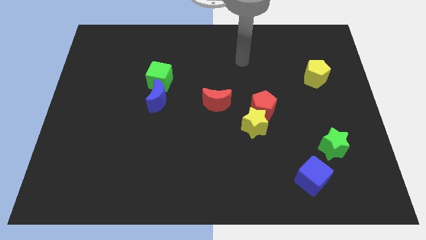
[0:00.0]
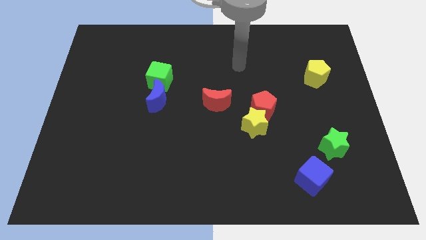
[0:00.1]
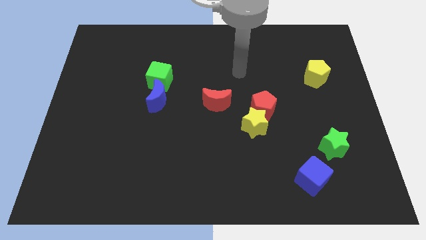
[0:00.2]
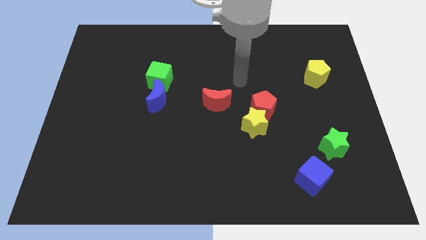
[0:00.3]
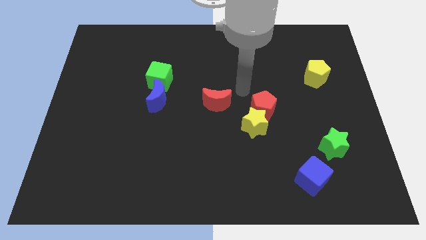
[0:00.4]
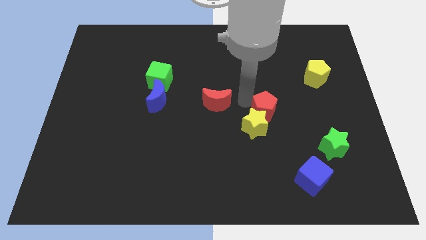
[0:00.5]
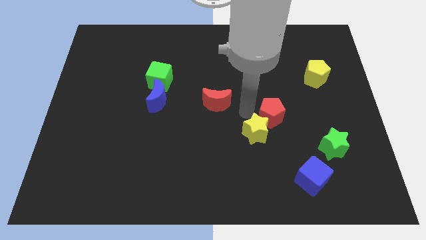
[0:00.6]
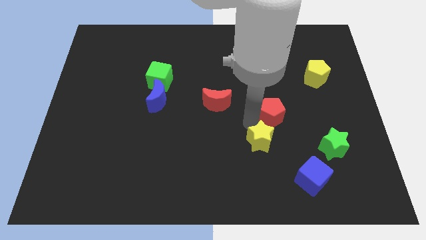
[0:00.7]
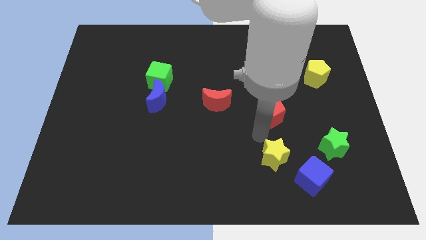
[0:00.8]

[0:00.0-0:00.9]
separate the red pentagon from the yellow star

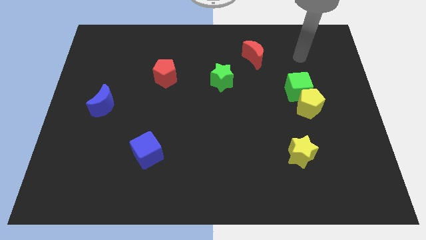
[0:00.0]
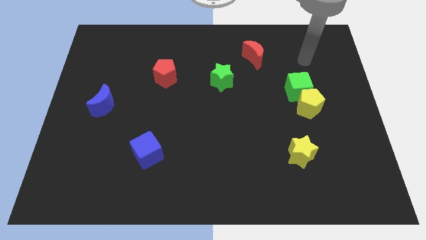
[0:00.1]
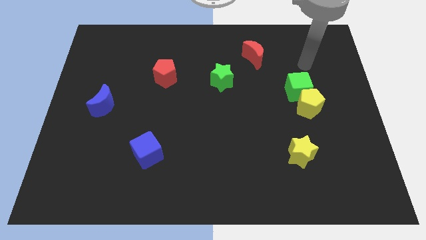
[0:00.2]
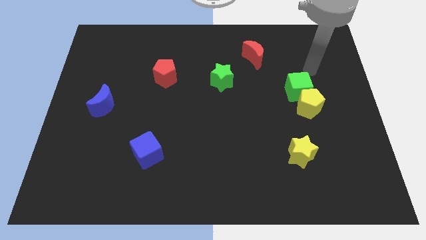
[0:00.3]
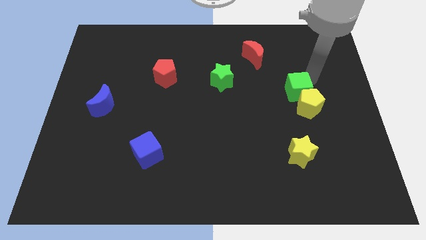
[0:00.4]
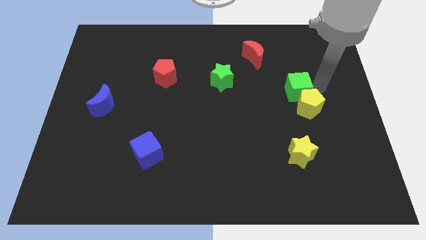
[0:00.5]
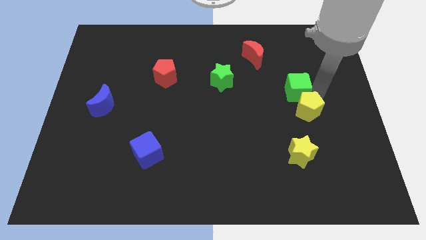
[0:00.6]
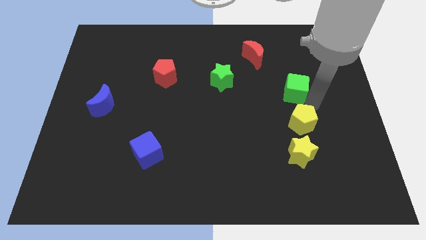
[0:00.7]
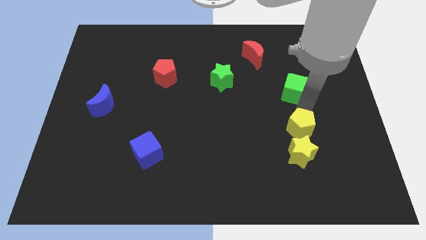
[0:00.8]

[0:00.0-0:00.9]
move the green cube away from the yellow pentagon

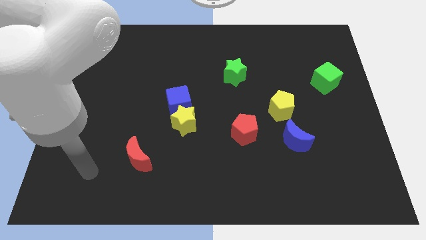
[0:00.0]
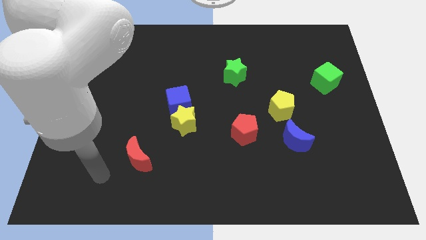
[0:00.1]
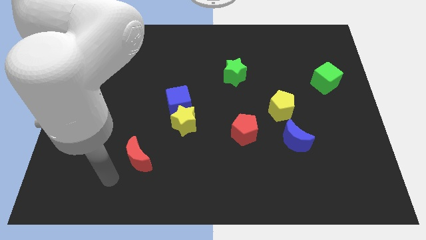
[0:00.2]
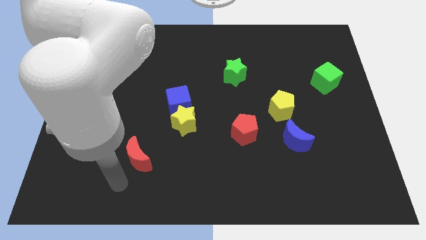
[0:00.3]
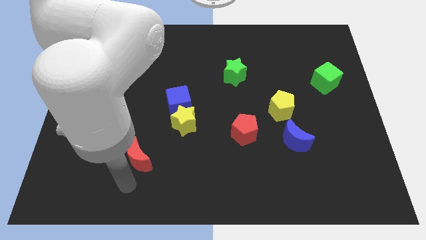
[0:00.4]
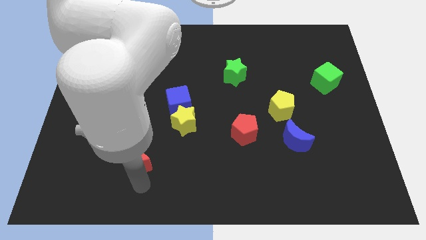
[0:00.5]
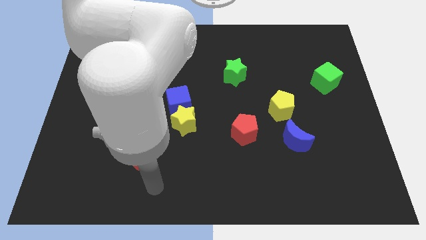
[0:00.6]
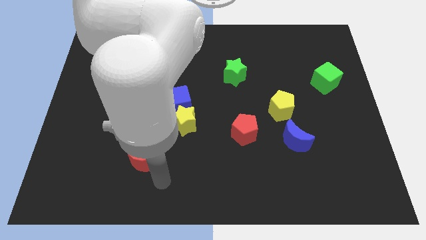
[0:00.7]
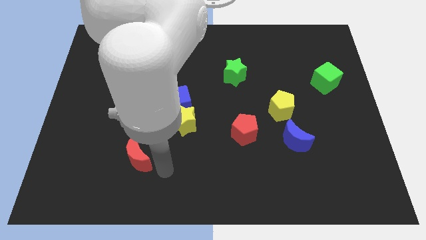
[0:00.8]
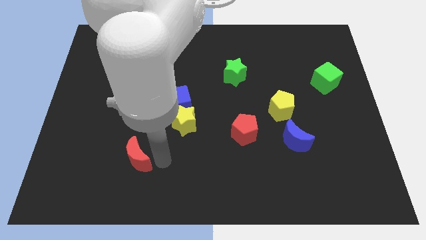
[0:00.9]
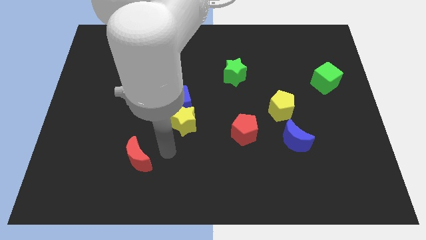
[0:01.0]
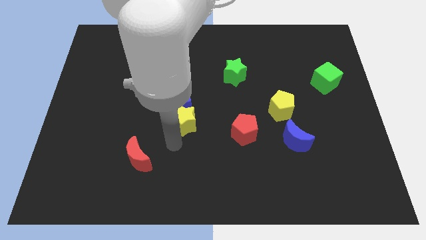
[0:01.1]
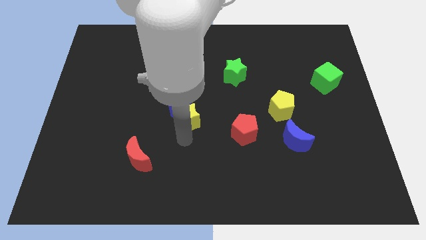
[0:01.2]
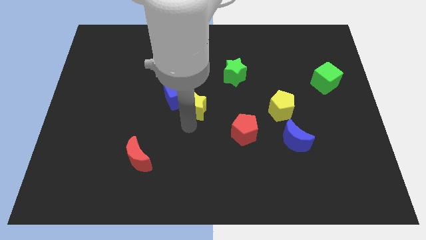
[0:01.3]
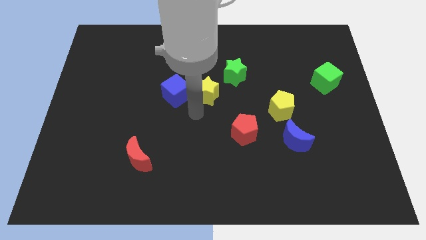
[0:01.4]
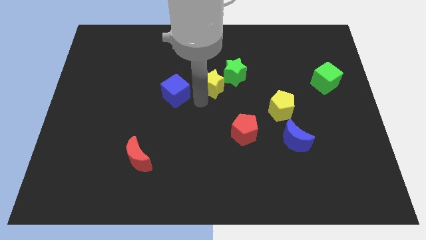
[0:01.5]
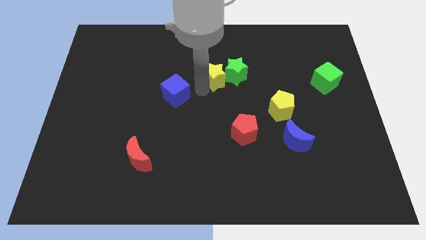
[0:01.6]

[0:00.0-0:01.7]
move the blue cube away from the yellow star

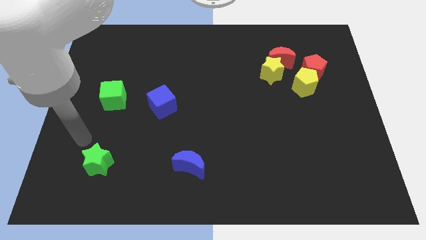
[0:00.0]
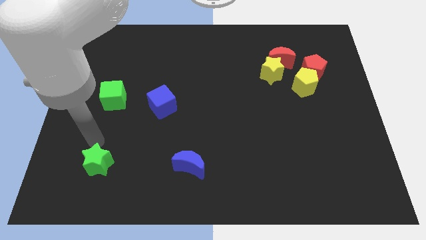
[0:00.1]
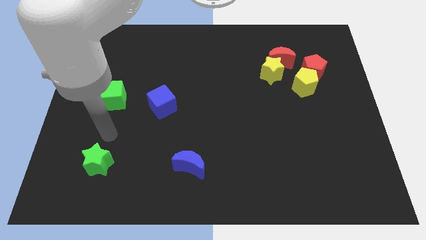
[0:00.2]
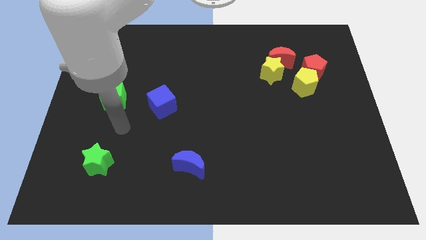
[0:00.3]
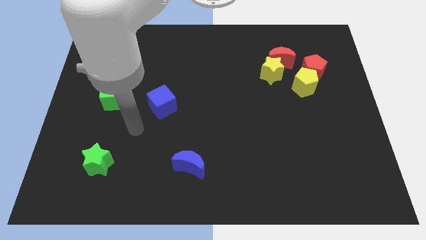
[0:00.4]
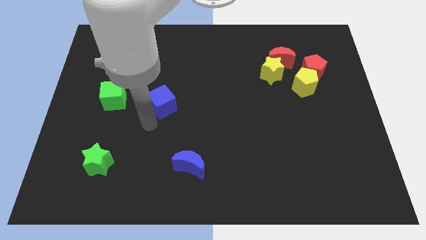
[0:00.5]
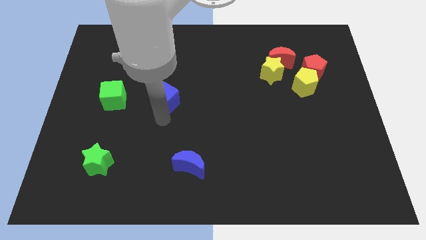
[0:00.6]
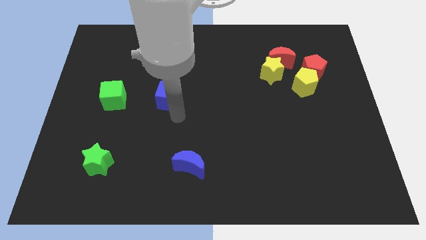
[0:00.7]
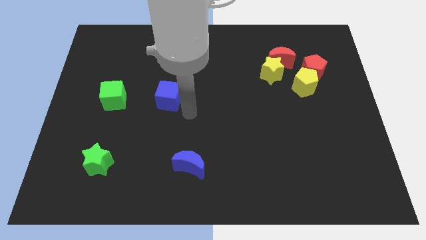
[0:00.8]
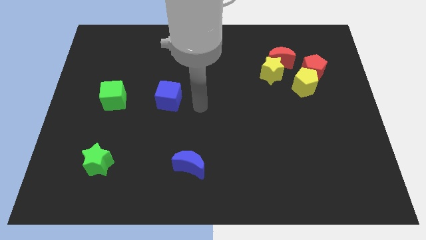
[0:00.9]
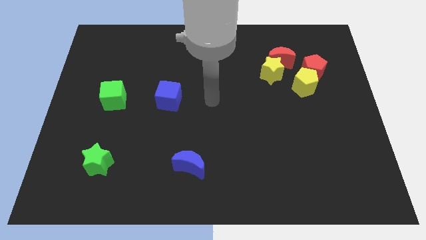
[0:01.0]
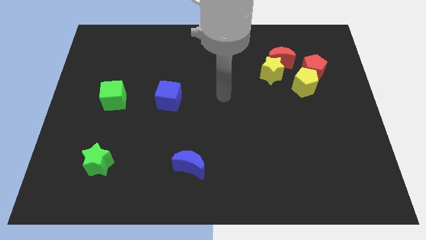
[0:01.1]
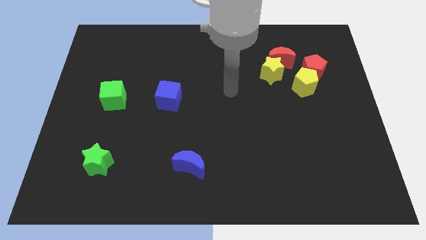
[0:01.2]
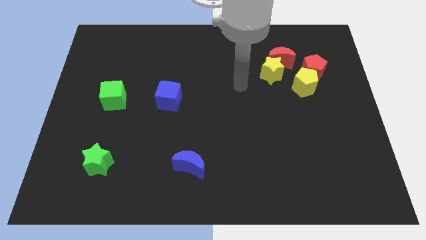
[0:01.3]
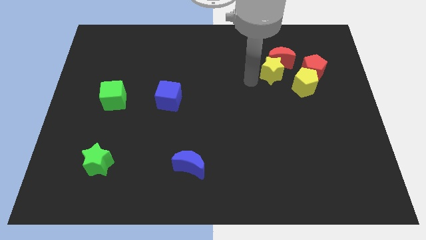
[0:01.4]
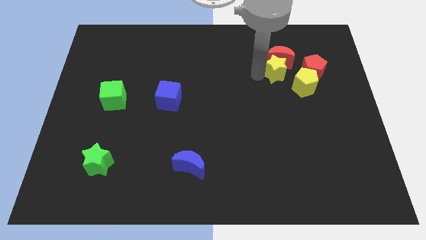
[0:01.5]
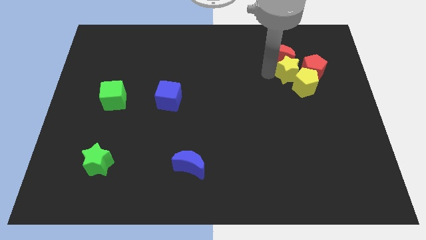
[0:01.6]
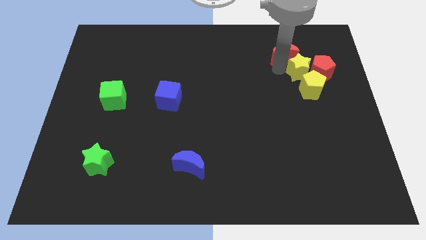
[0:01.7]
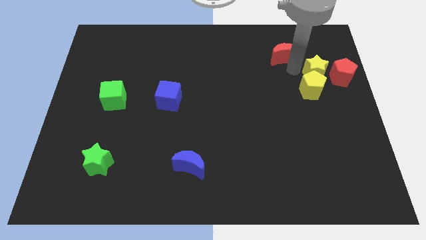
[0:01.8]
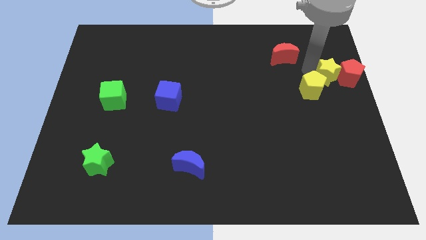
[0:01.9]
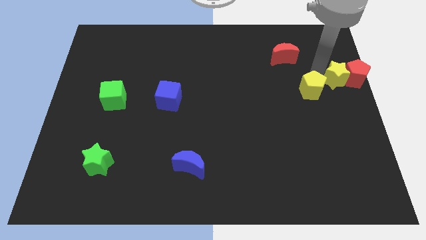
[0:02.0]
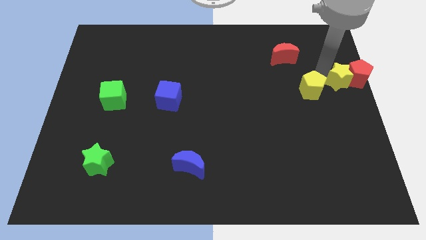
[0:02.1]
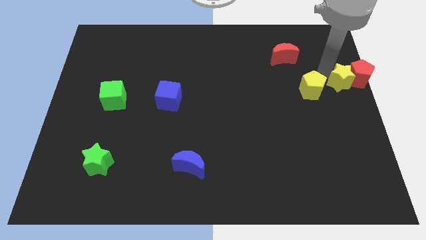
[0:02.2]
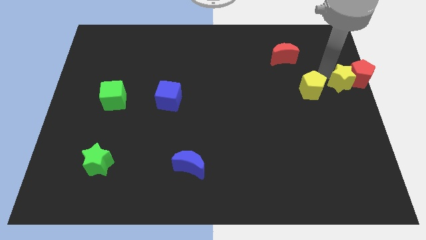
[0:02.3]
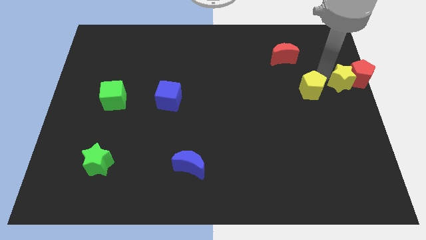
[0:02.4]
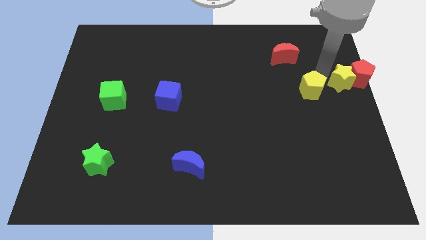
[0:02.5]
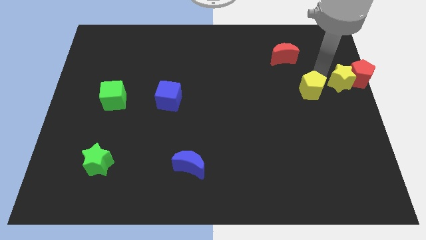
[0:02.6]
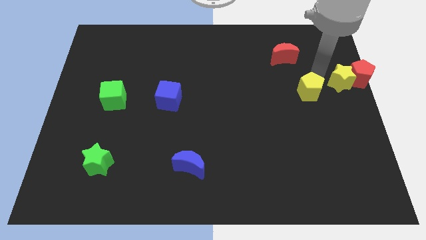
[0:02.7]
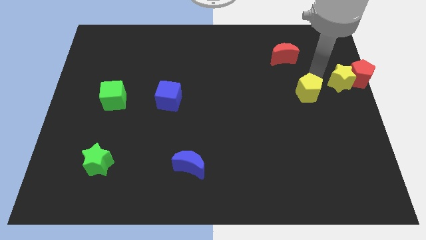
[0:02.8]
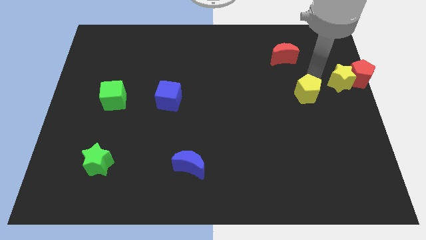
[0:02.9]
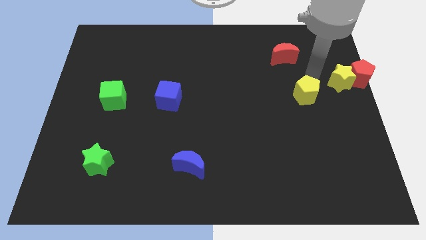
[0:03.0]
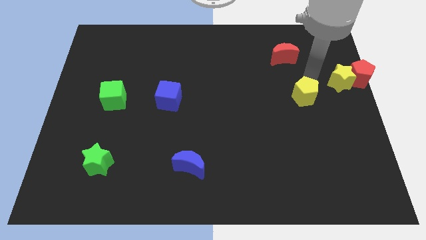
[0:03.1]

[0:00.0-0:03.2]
pull the yellow pentagon apart from the group of blocks

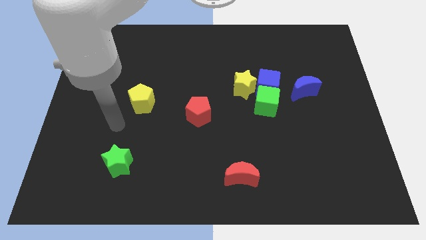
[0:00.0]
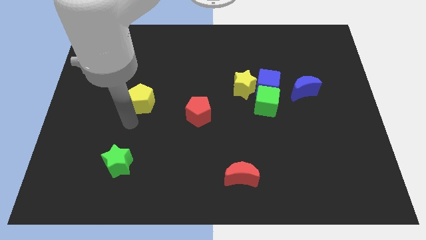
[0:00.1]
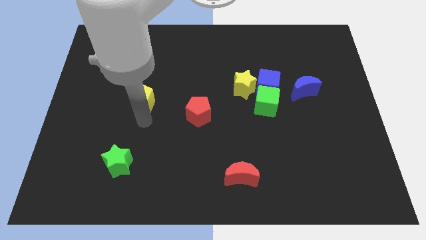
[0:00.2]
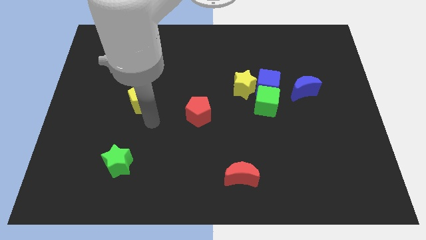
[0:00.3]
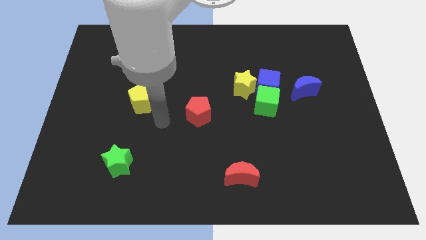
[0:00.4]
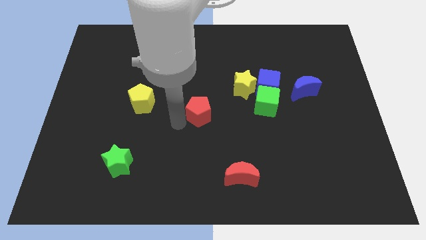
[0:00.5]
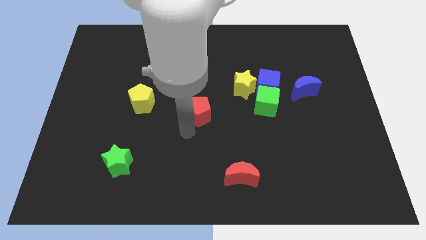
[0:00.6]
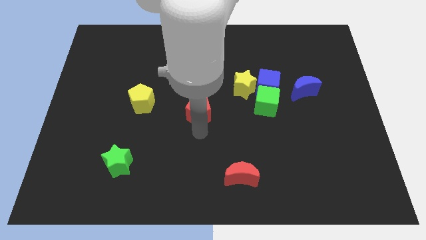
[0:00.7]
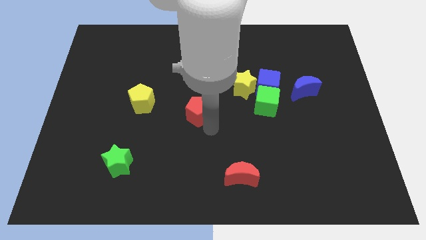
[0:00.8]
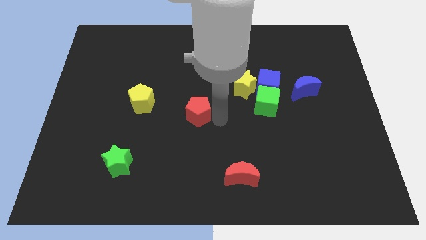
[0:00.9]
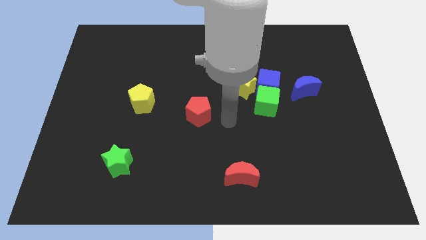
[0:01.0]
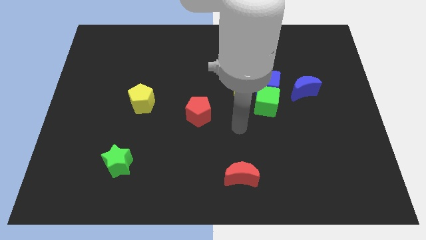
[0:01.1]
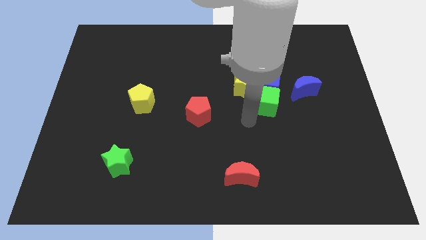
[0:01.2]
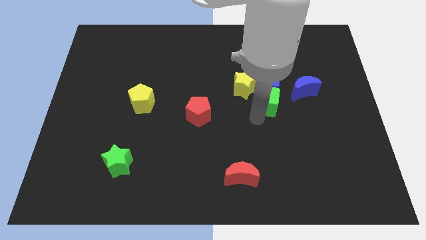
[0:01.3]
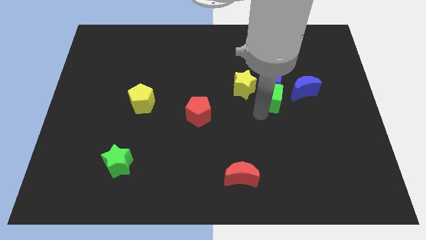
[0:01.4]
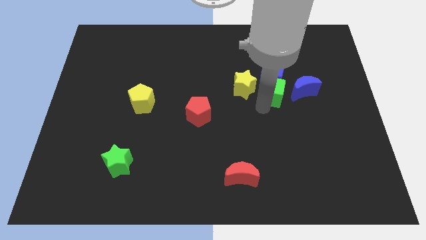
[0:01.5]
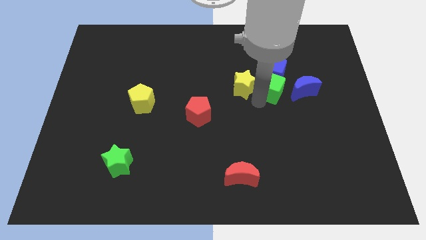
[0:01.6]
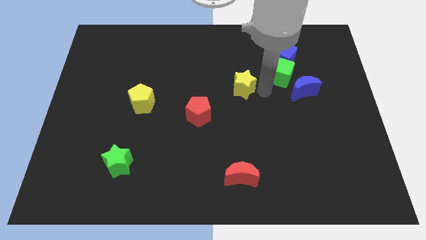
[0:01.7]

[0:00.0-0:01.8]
pull the yellow star apart from the blue cube and green cube

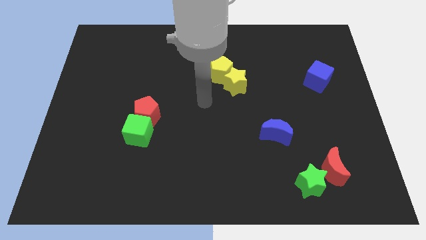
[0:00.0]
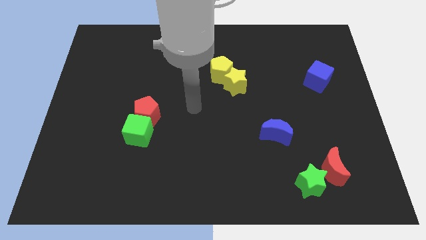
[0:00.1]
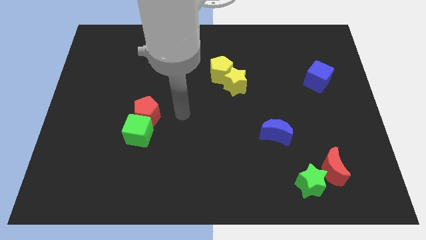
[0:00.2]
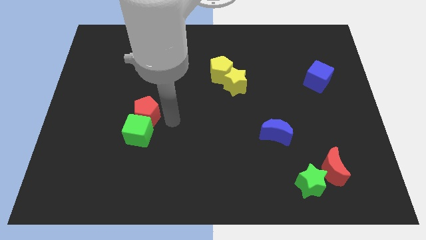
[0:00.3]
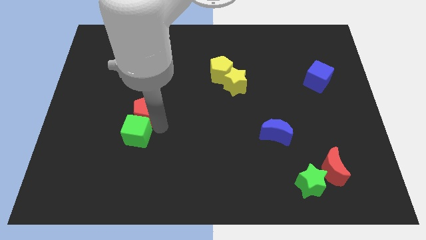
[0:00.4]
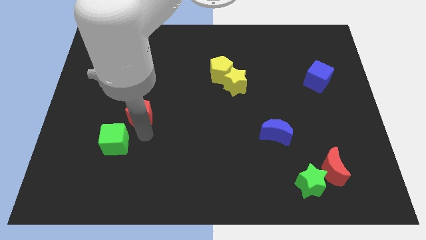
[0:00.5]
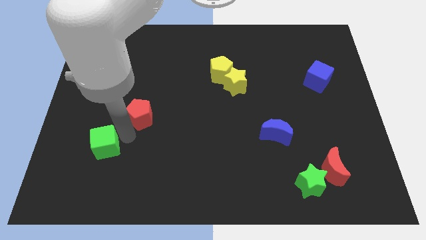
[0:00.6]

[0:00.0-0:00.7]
separate the red pentagon from the green cube

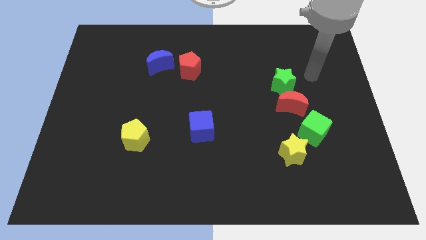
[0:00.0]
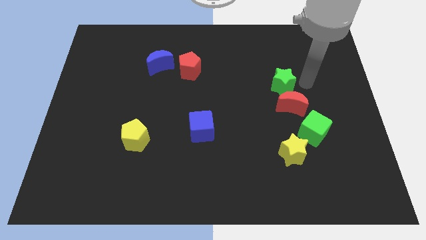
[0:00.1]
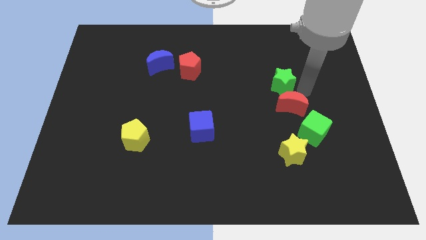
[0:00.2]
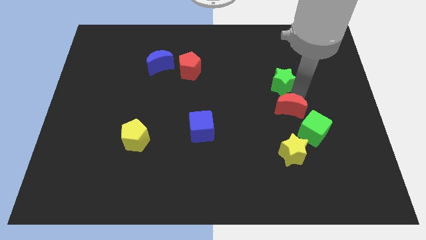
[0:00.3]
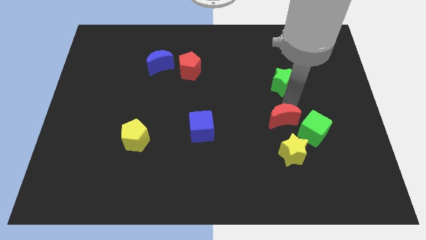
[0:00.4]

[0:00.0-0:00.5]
move the green star away from the red moon
